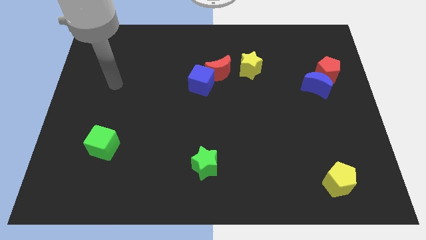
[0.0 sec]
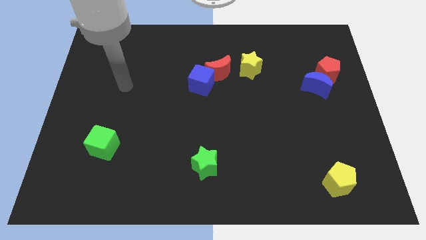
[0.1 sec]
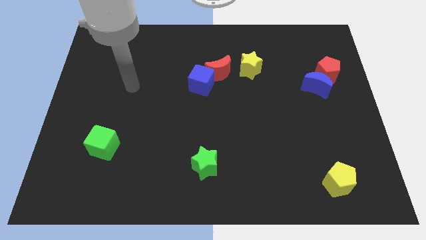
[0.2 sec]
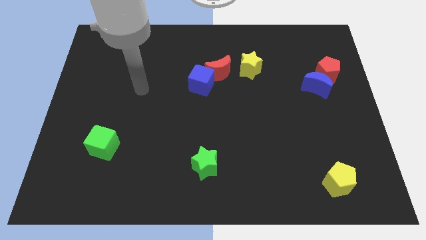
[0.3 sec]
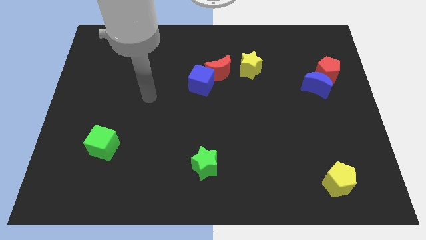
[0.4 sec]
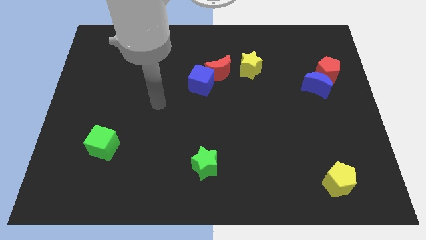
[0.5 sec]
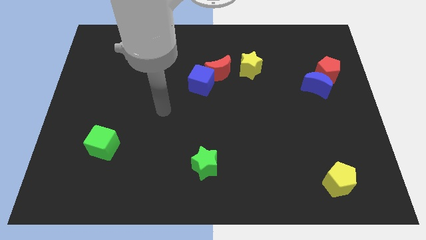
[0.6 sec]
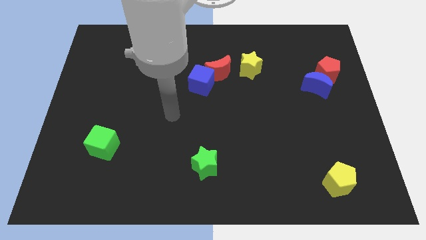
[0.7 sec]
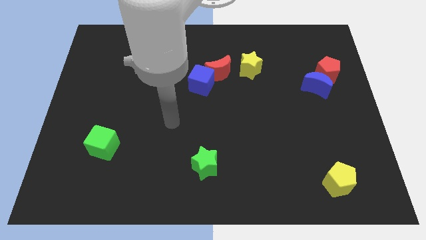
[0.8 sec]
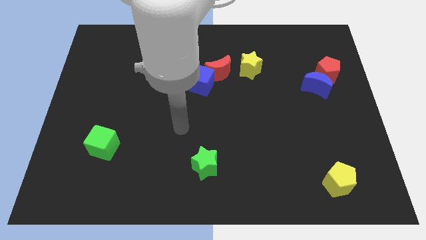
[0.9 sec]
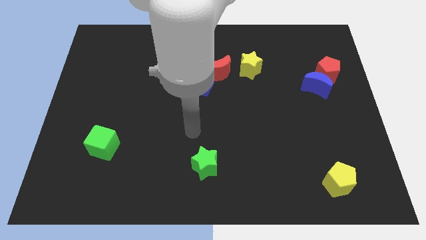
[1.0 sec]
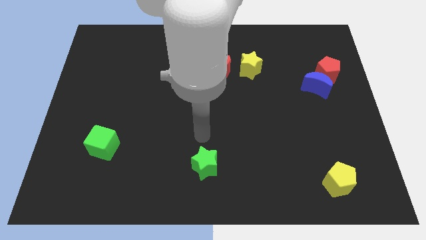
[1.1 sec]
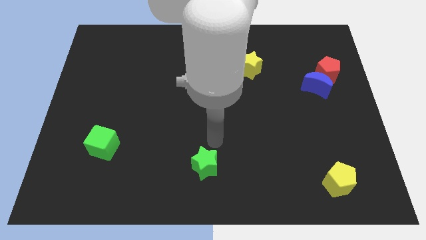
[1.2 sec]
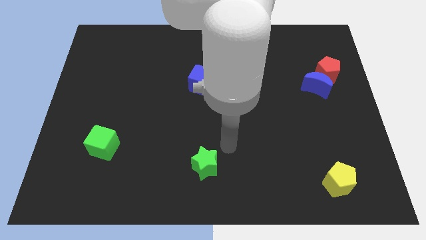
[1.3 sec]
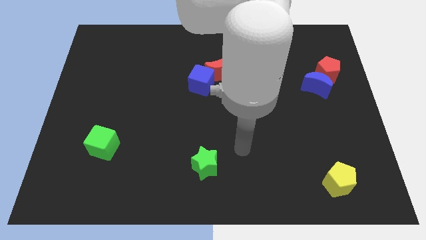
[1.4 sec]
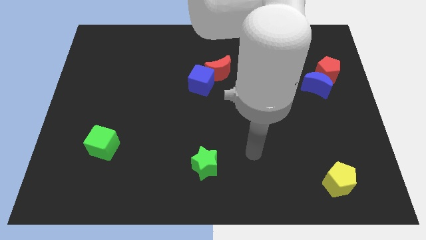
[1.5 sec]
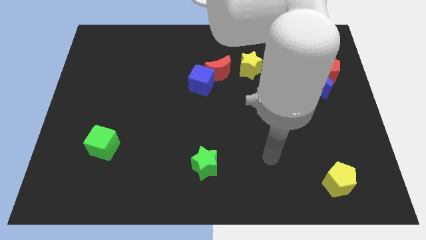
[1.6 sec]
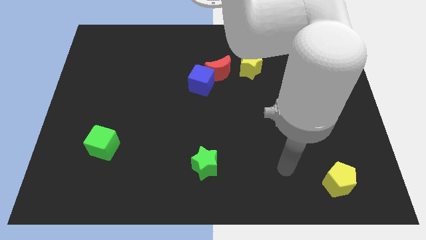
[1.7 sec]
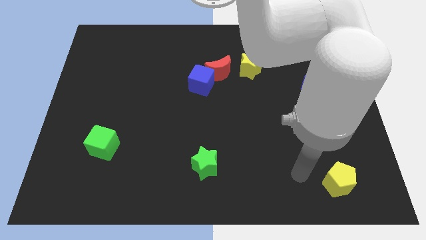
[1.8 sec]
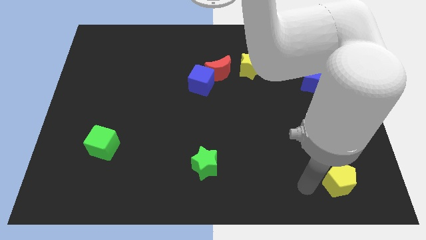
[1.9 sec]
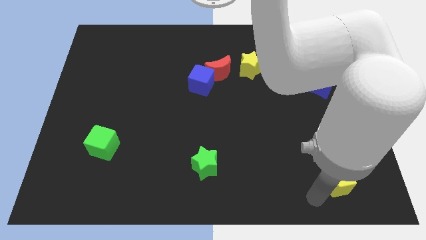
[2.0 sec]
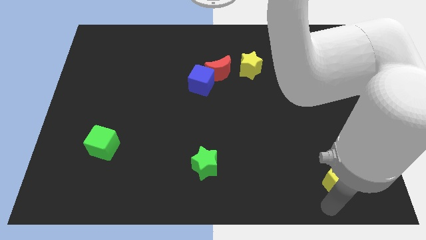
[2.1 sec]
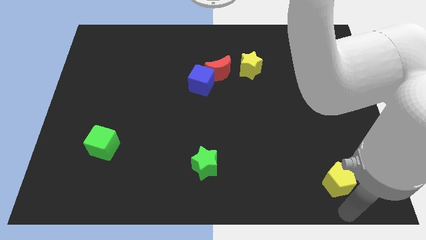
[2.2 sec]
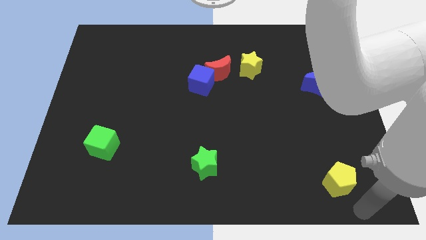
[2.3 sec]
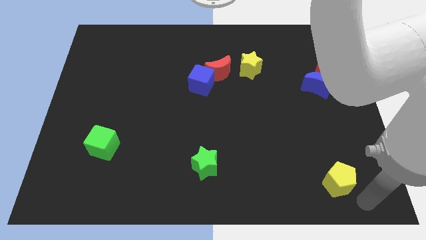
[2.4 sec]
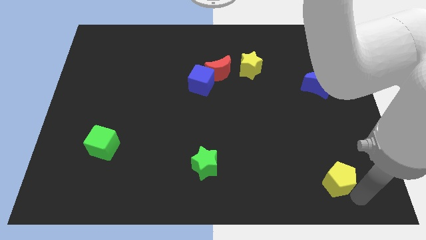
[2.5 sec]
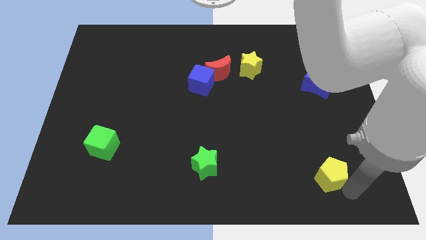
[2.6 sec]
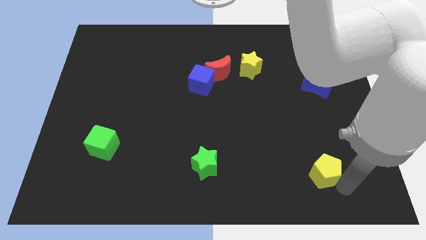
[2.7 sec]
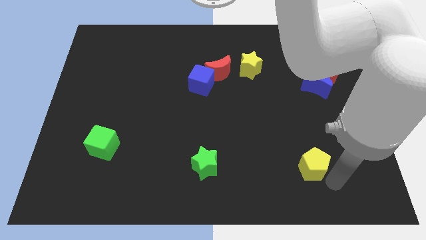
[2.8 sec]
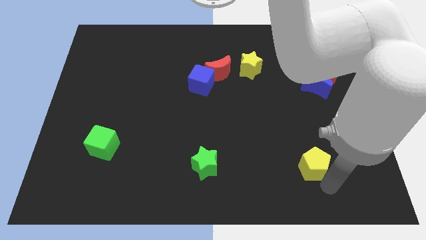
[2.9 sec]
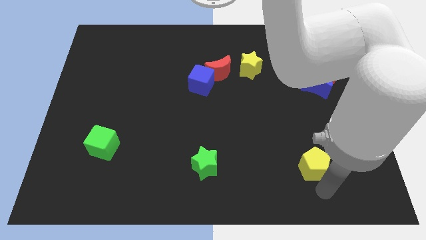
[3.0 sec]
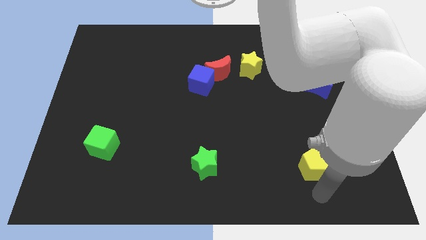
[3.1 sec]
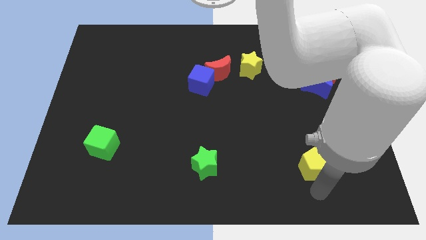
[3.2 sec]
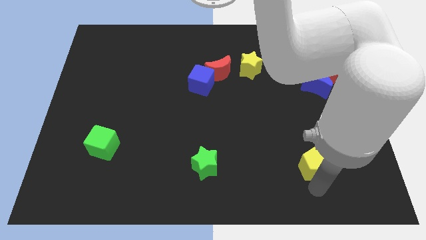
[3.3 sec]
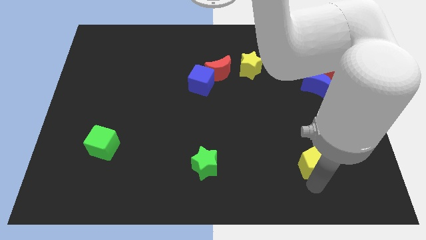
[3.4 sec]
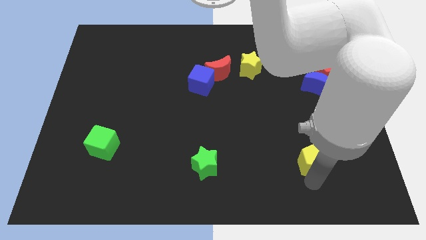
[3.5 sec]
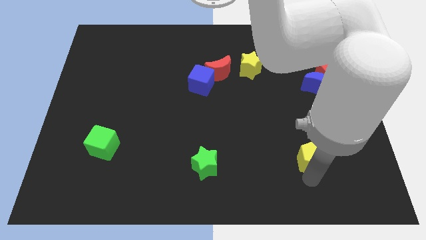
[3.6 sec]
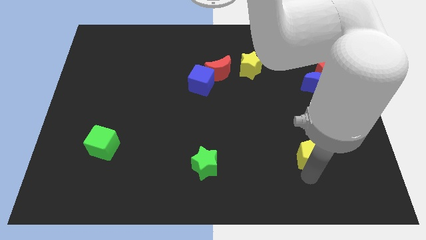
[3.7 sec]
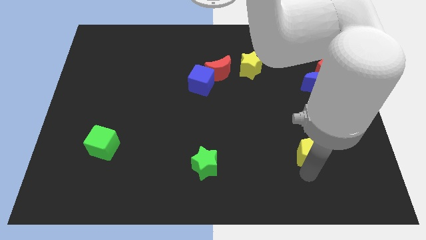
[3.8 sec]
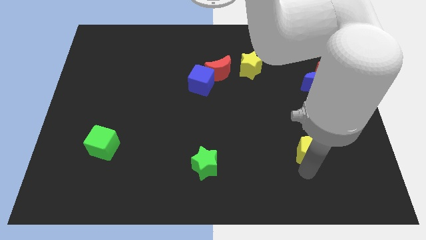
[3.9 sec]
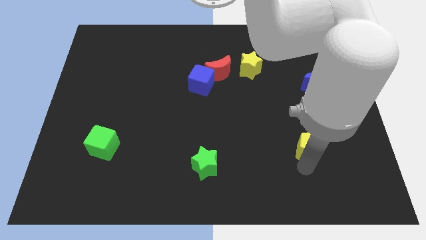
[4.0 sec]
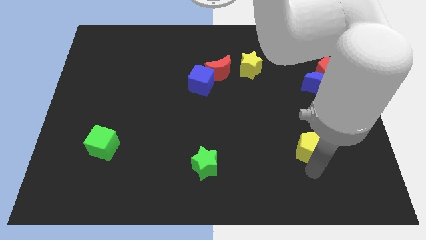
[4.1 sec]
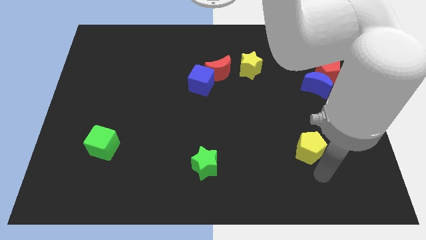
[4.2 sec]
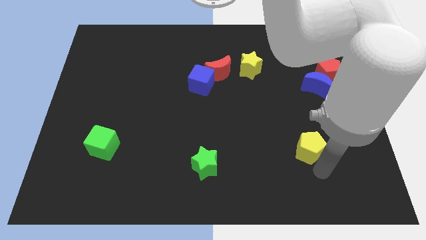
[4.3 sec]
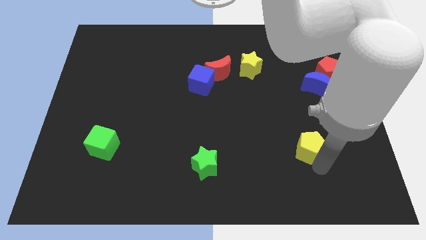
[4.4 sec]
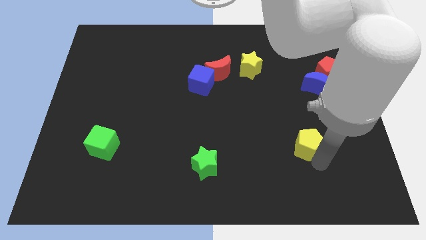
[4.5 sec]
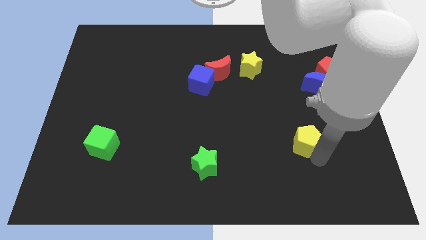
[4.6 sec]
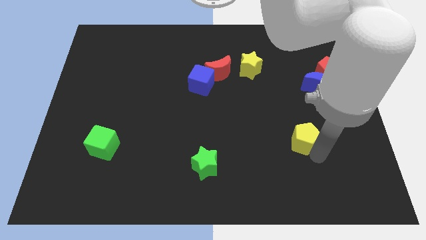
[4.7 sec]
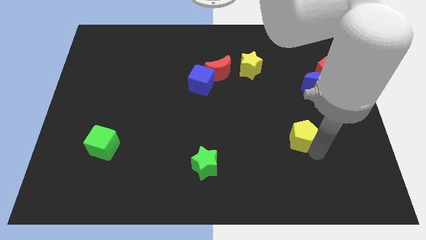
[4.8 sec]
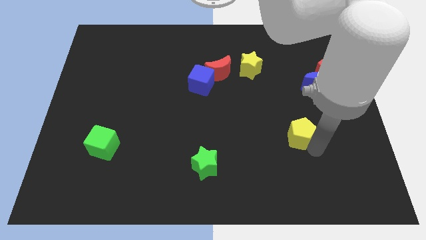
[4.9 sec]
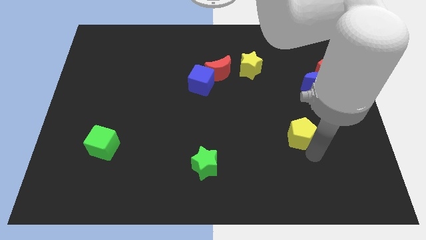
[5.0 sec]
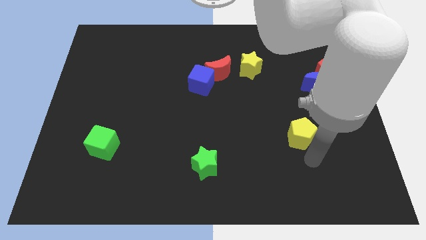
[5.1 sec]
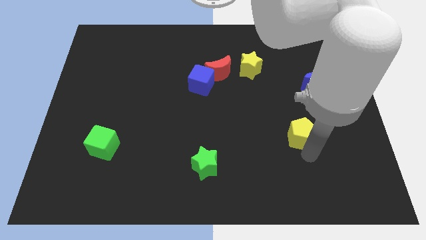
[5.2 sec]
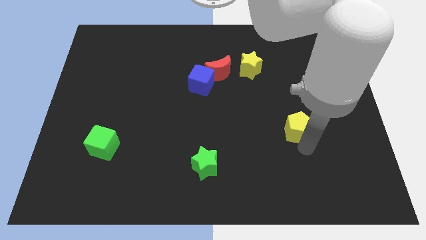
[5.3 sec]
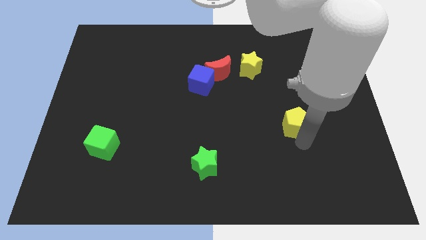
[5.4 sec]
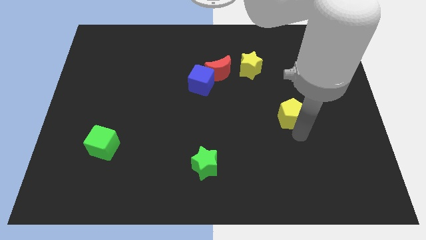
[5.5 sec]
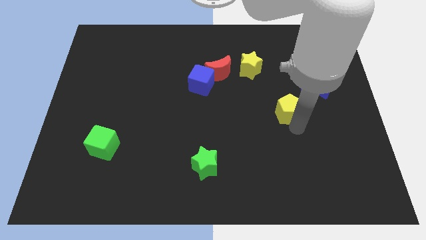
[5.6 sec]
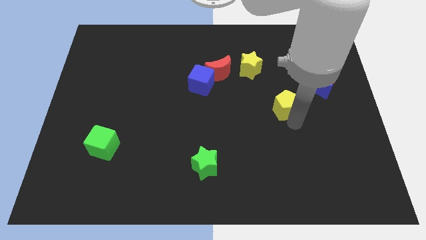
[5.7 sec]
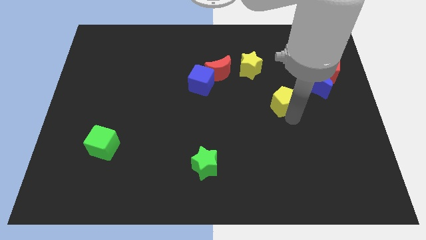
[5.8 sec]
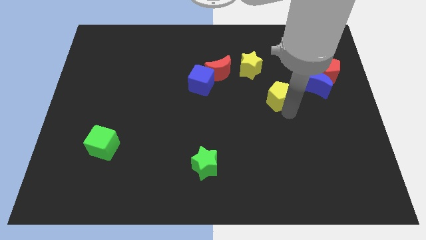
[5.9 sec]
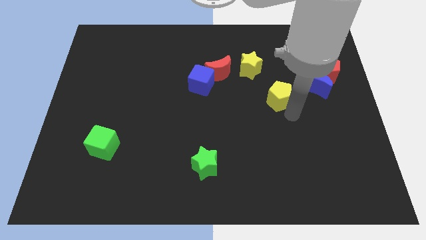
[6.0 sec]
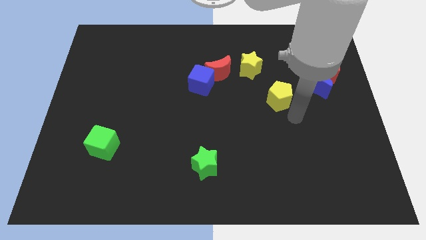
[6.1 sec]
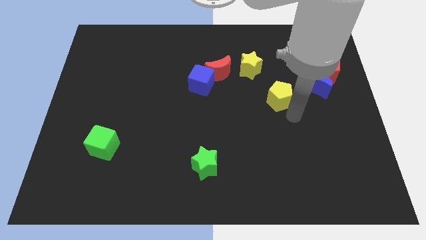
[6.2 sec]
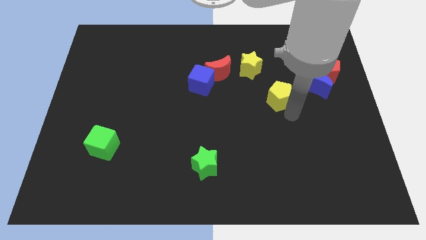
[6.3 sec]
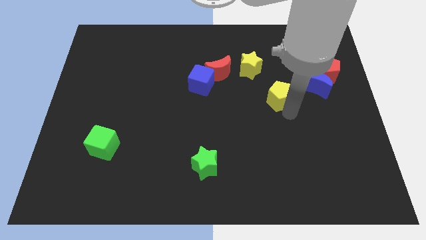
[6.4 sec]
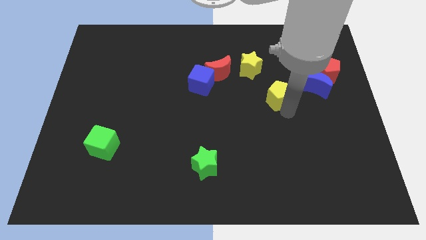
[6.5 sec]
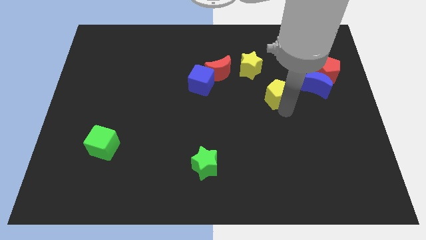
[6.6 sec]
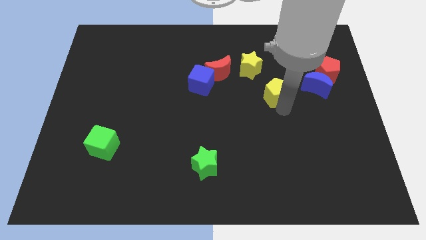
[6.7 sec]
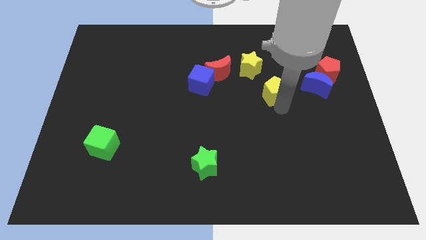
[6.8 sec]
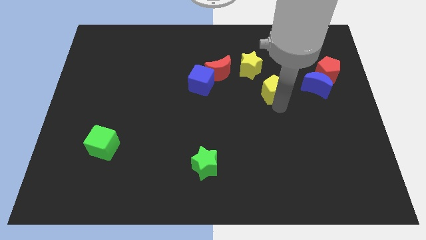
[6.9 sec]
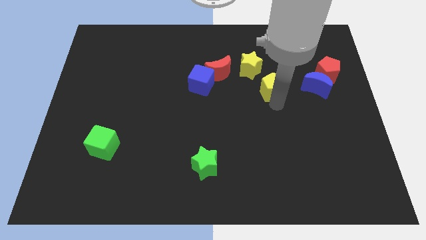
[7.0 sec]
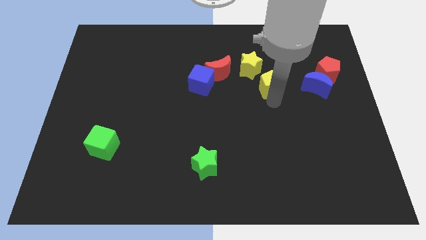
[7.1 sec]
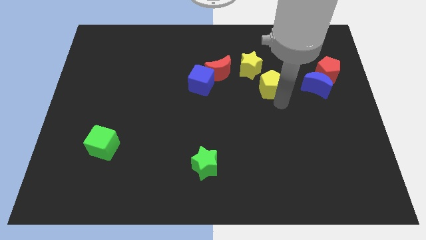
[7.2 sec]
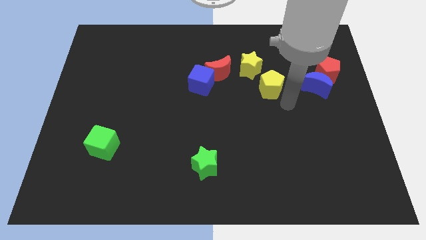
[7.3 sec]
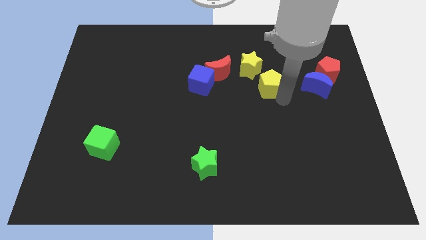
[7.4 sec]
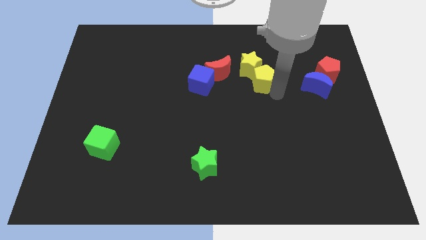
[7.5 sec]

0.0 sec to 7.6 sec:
move the yellow pentagon next to the yellow star
